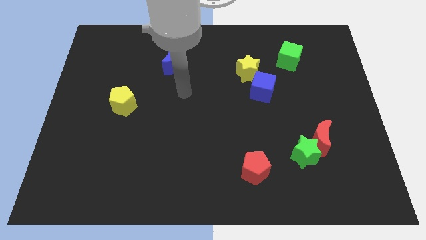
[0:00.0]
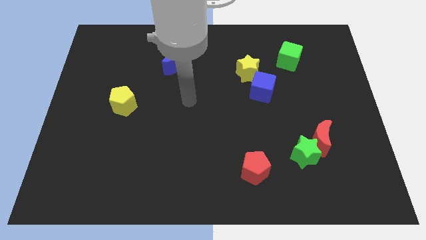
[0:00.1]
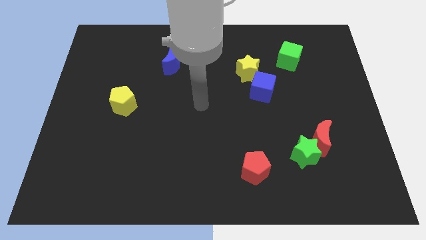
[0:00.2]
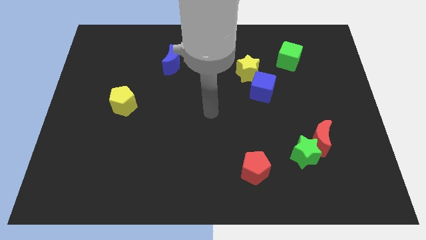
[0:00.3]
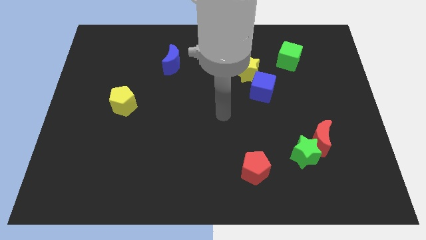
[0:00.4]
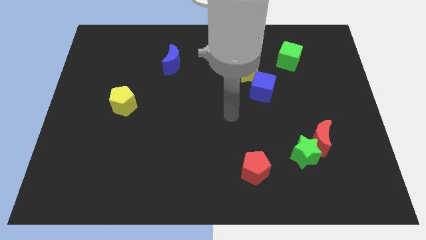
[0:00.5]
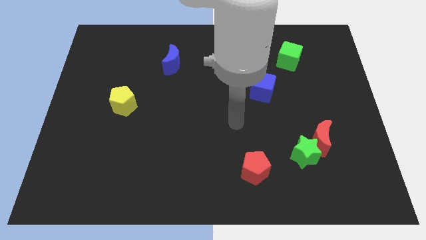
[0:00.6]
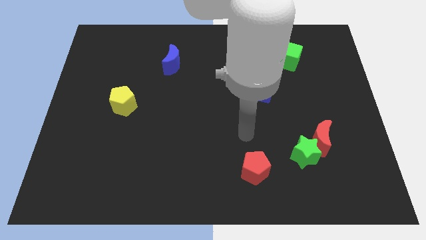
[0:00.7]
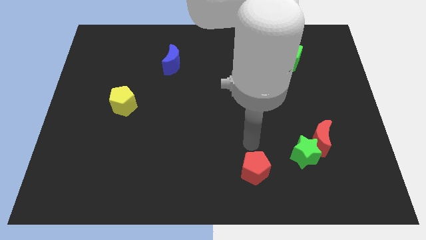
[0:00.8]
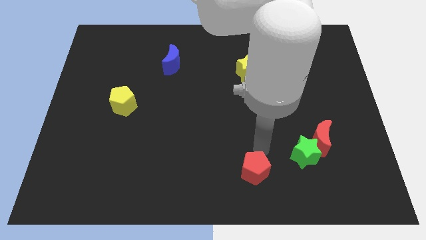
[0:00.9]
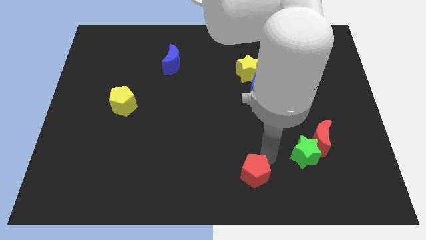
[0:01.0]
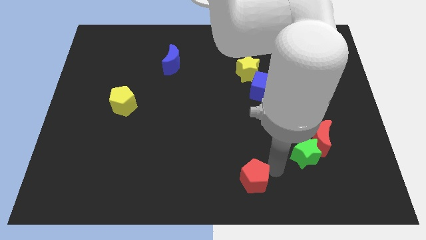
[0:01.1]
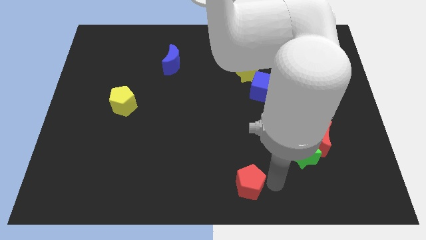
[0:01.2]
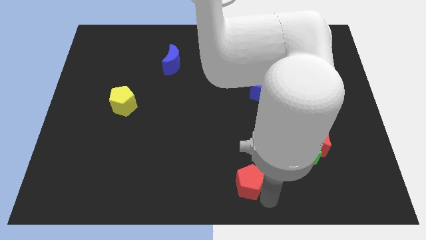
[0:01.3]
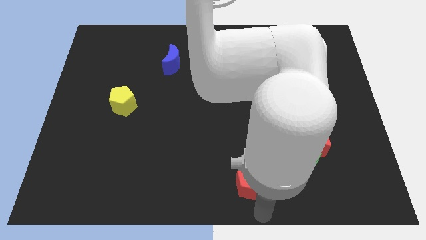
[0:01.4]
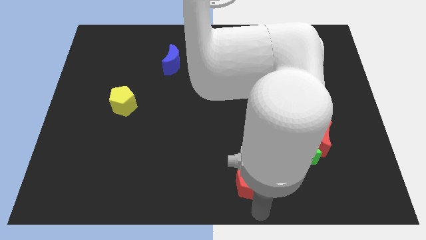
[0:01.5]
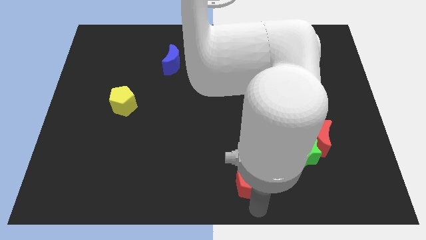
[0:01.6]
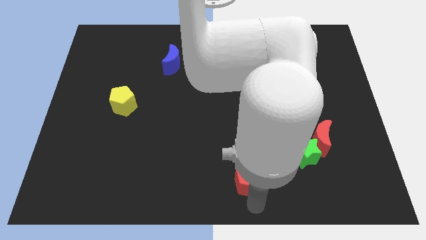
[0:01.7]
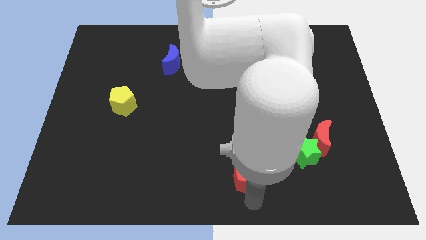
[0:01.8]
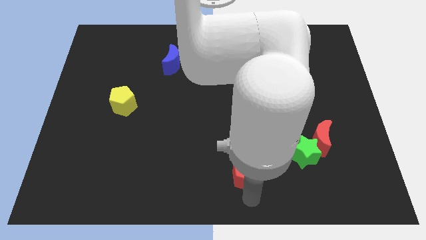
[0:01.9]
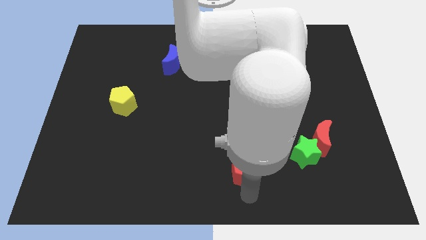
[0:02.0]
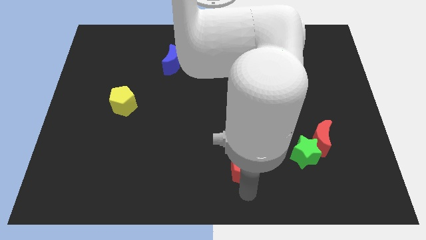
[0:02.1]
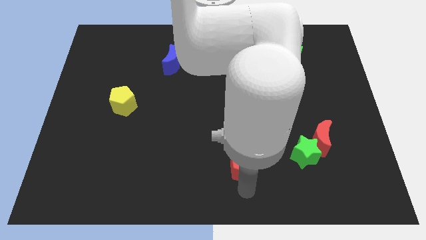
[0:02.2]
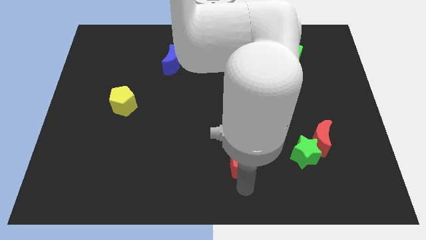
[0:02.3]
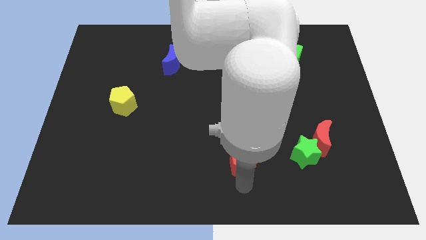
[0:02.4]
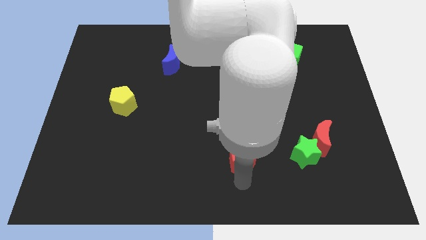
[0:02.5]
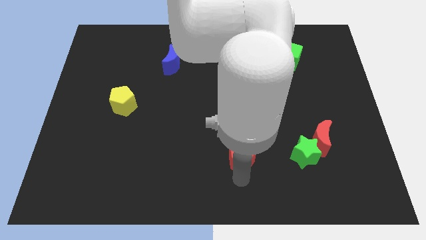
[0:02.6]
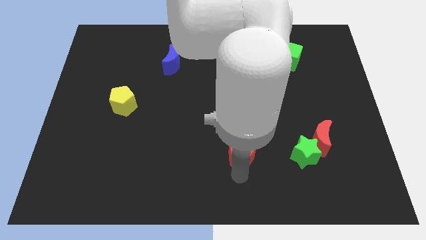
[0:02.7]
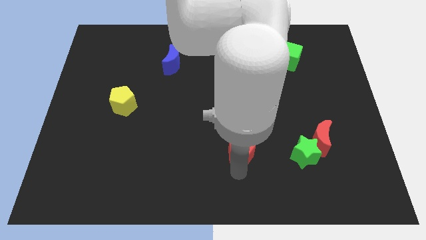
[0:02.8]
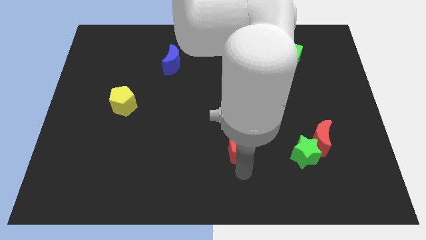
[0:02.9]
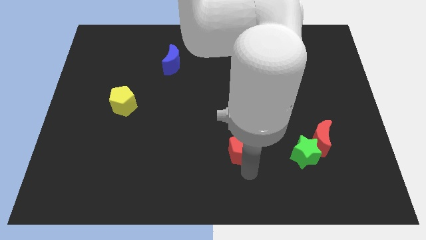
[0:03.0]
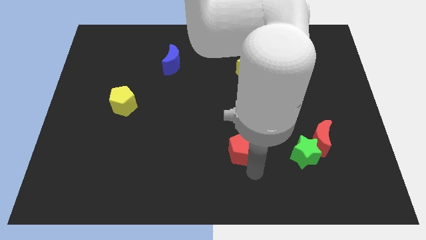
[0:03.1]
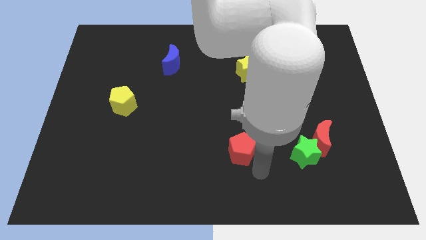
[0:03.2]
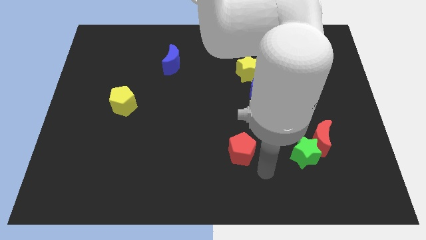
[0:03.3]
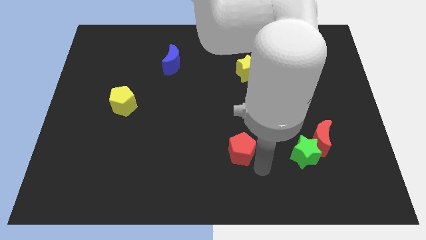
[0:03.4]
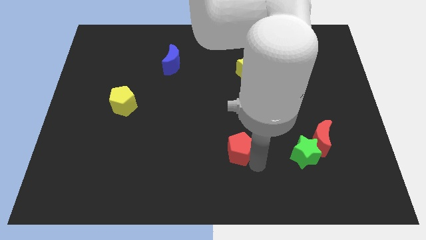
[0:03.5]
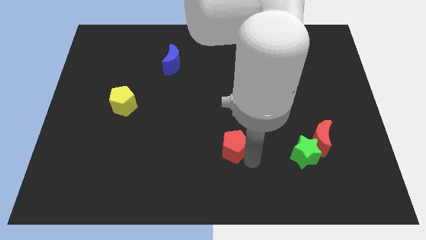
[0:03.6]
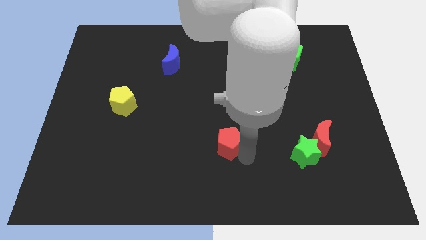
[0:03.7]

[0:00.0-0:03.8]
push the red pentagon a little bit up and left

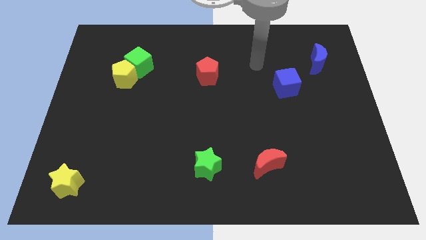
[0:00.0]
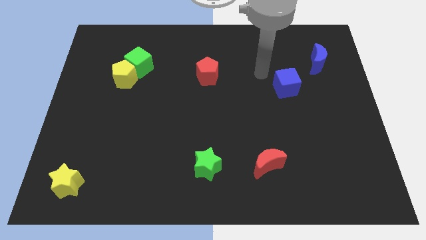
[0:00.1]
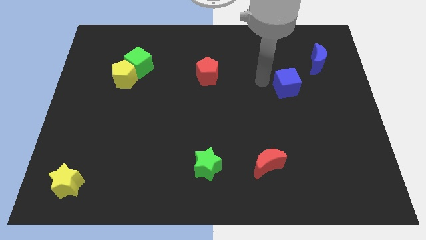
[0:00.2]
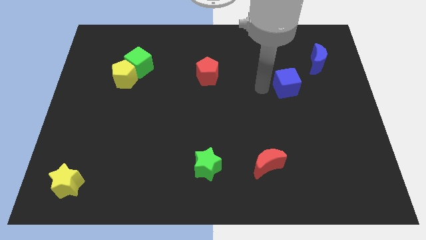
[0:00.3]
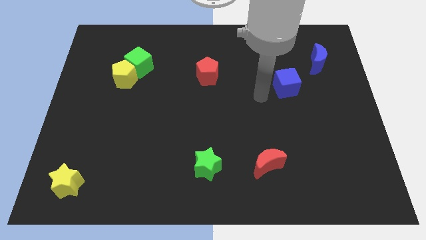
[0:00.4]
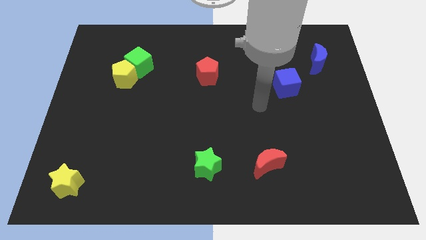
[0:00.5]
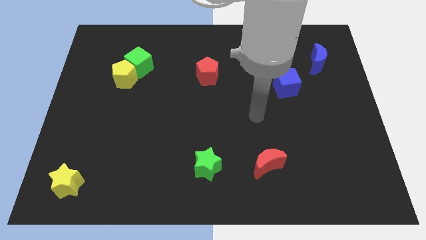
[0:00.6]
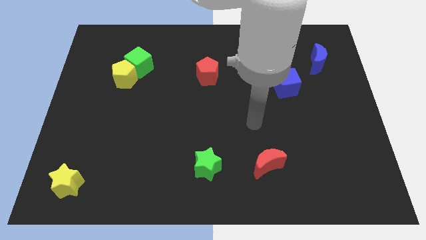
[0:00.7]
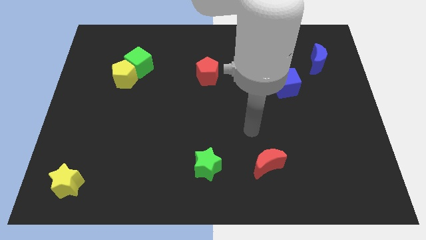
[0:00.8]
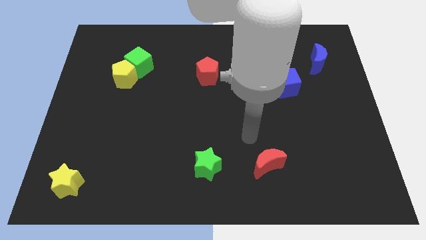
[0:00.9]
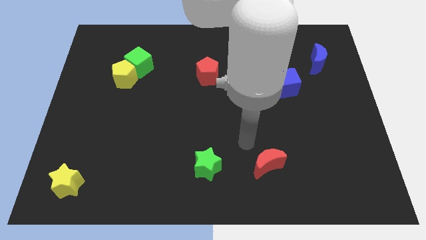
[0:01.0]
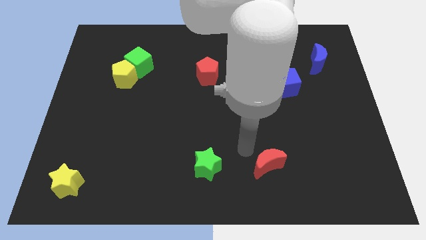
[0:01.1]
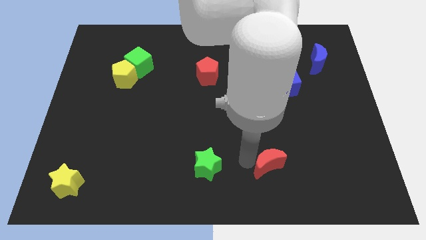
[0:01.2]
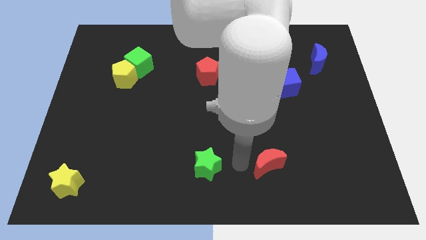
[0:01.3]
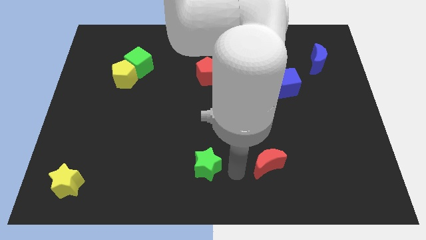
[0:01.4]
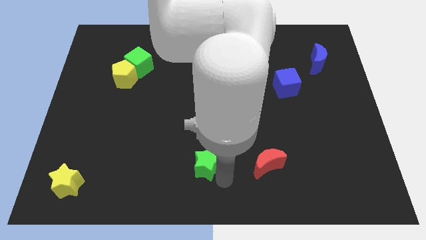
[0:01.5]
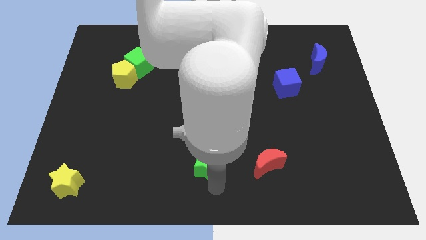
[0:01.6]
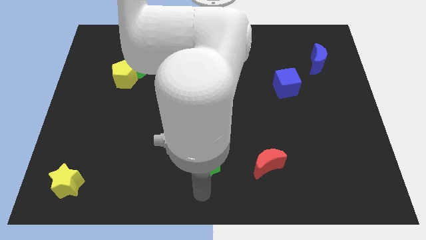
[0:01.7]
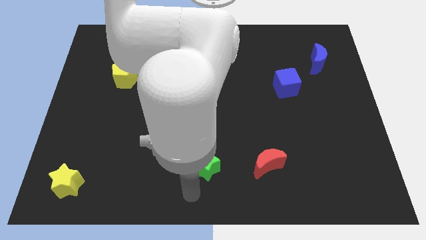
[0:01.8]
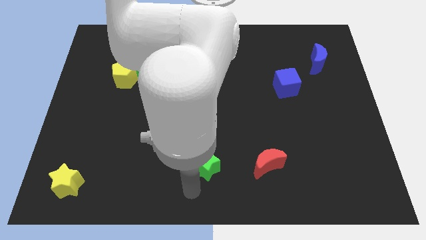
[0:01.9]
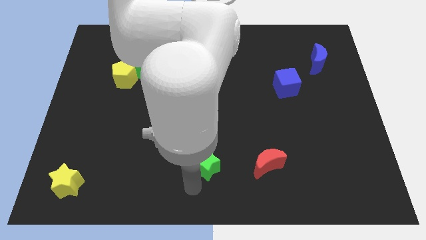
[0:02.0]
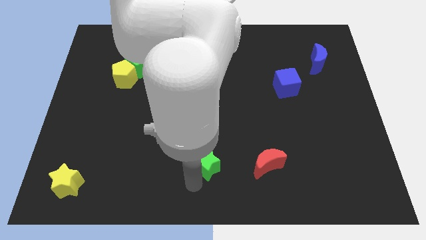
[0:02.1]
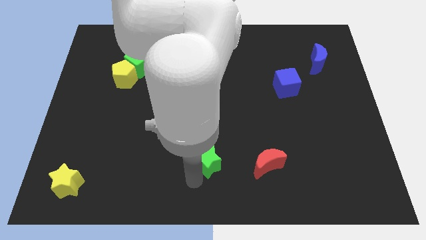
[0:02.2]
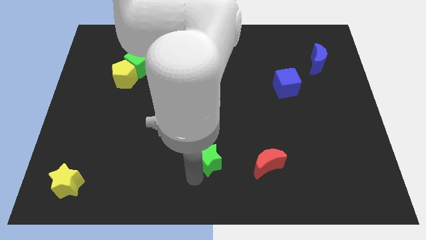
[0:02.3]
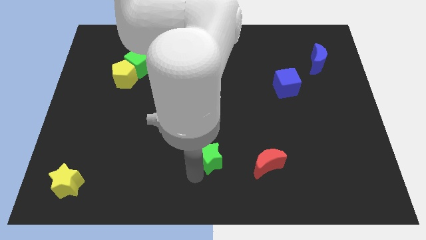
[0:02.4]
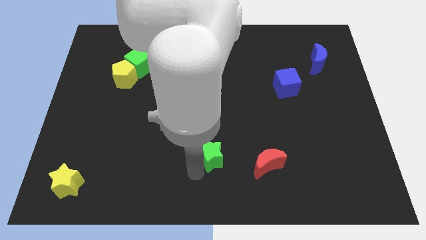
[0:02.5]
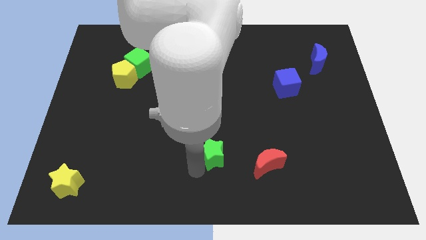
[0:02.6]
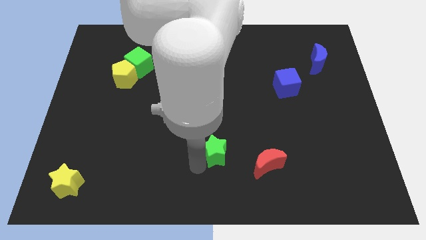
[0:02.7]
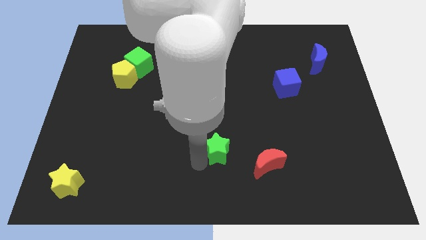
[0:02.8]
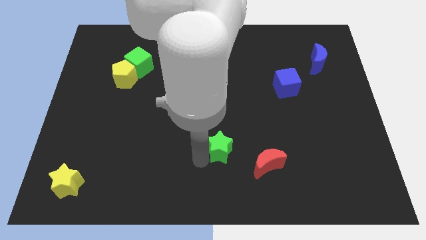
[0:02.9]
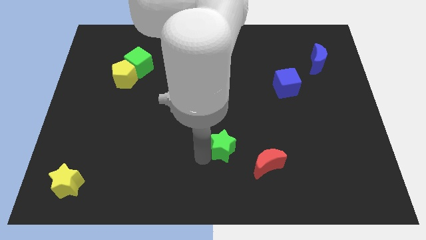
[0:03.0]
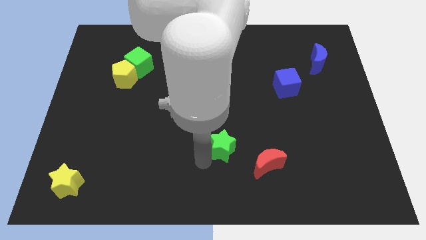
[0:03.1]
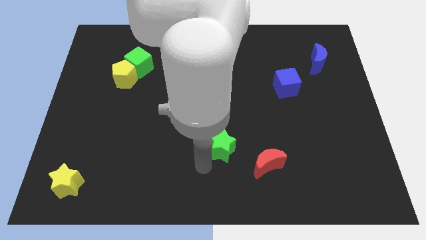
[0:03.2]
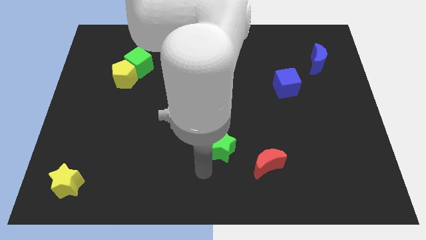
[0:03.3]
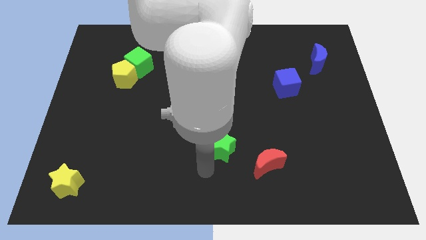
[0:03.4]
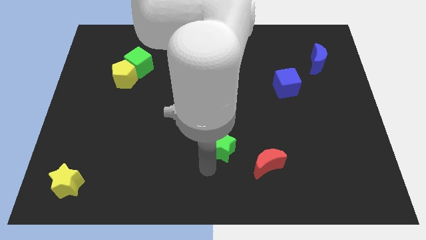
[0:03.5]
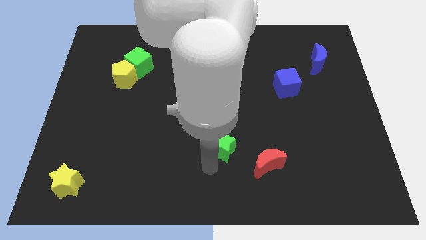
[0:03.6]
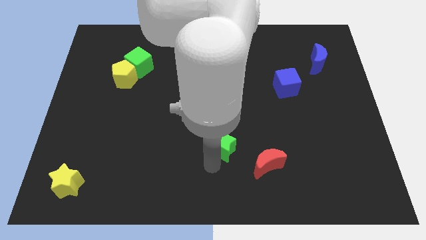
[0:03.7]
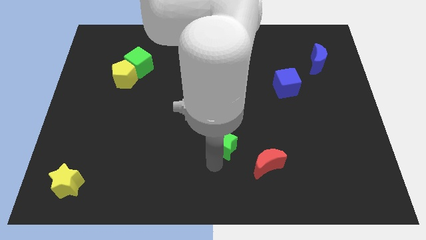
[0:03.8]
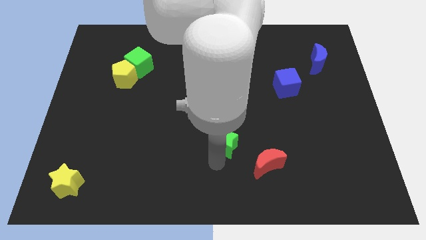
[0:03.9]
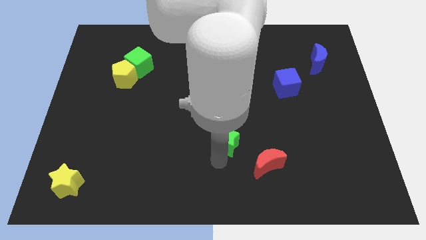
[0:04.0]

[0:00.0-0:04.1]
move the green star slightly diagonally upwards and right

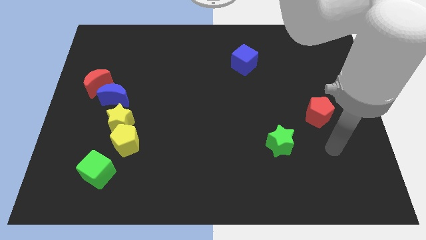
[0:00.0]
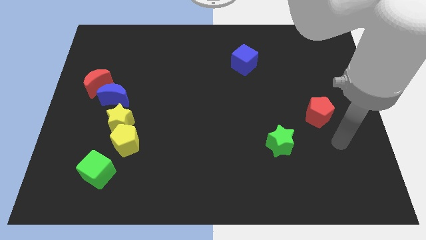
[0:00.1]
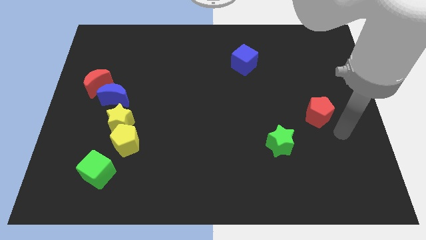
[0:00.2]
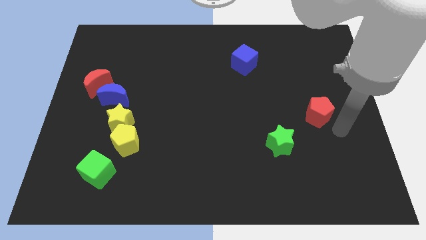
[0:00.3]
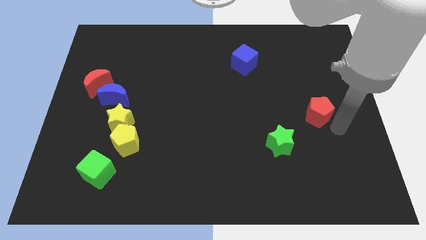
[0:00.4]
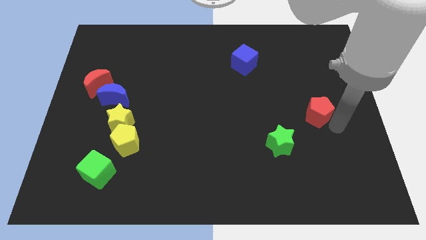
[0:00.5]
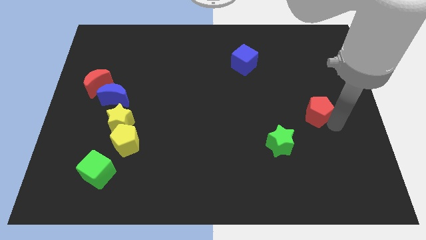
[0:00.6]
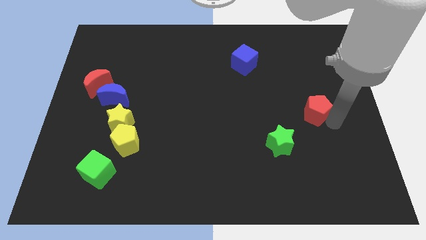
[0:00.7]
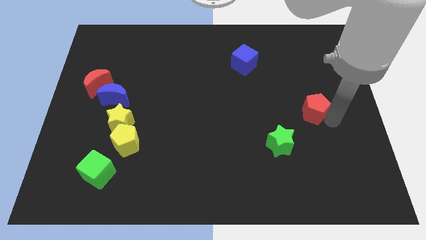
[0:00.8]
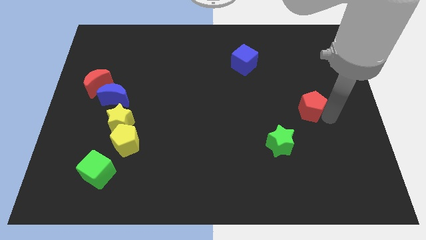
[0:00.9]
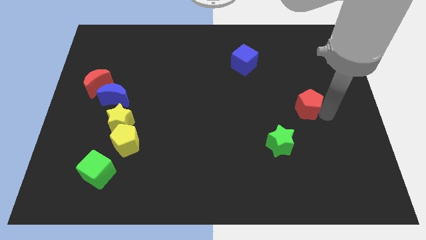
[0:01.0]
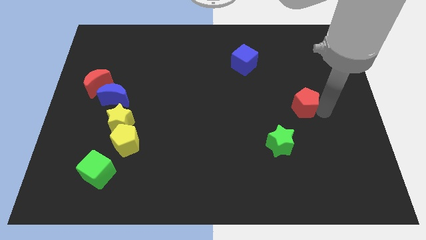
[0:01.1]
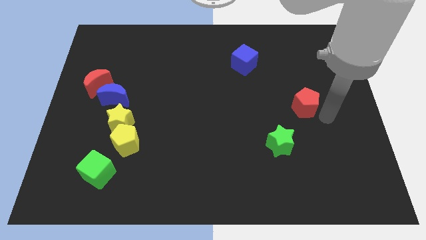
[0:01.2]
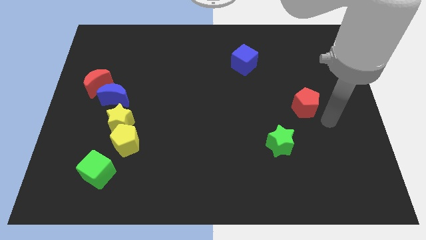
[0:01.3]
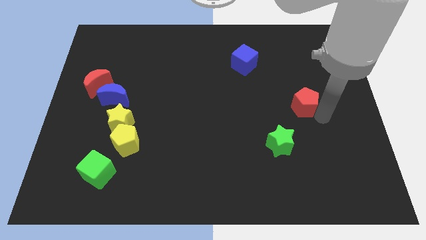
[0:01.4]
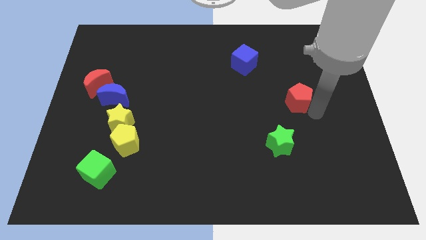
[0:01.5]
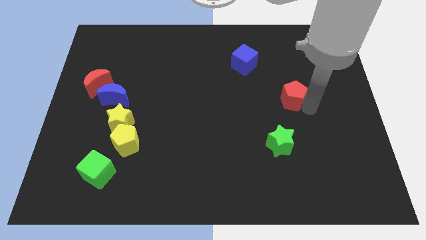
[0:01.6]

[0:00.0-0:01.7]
slide the red pentagon a little bit up and then to the left
